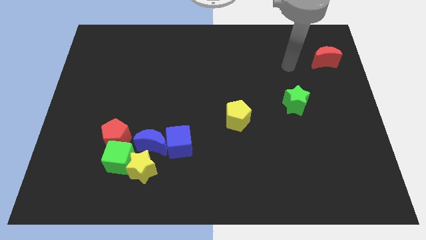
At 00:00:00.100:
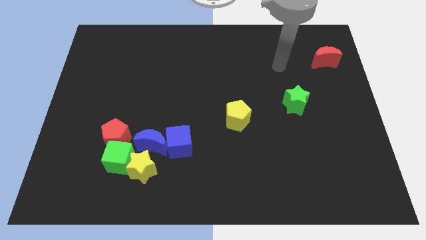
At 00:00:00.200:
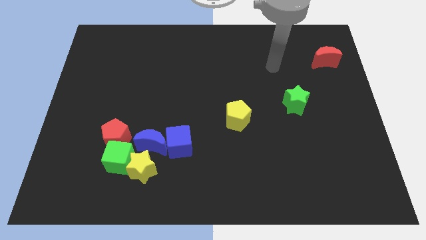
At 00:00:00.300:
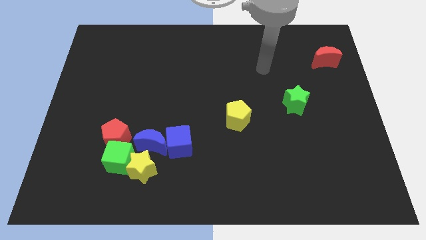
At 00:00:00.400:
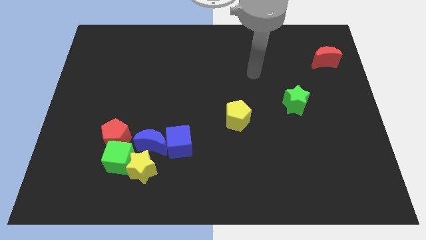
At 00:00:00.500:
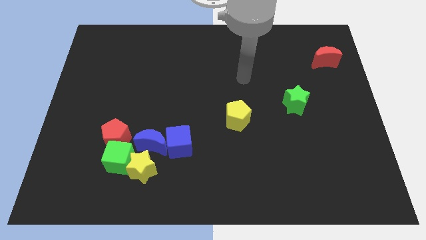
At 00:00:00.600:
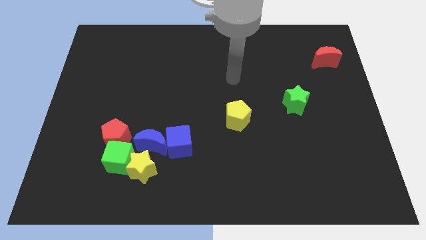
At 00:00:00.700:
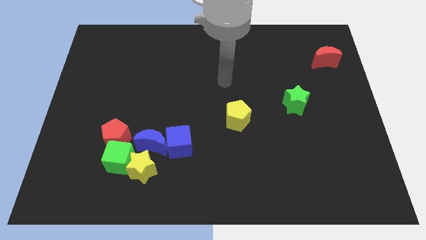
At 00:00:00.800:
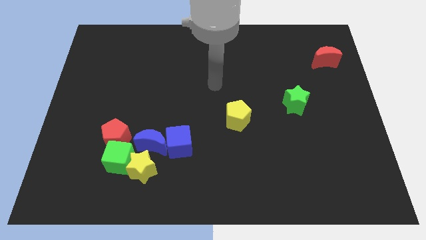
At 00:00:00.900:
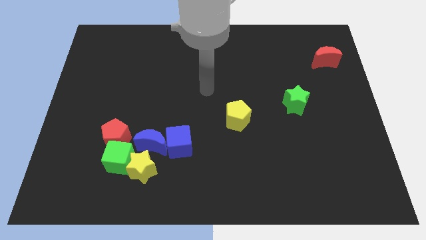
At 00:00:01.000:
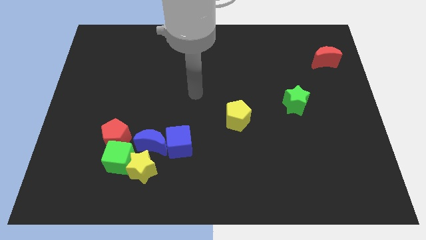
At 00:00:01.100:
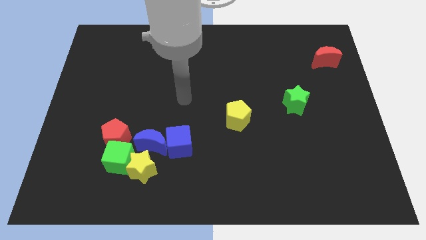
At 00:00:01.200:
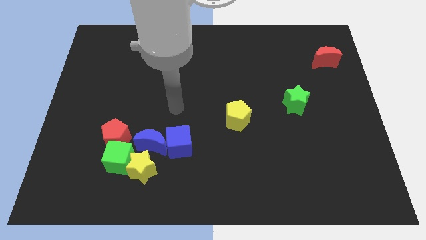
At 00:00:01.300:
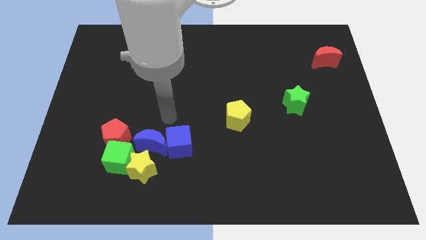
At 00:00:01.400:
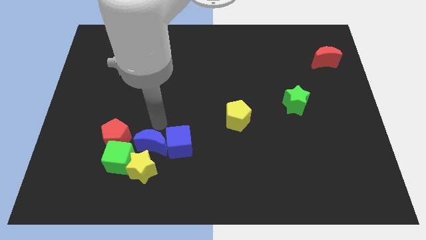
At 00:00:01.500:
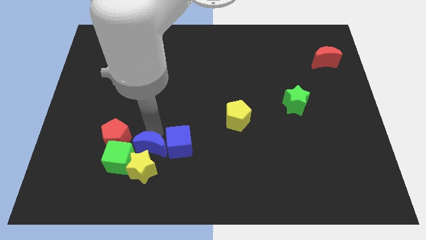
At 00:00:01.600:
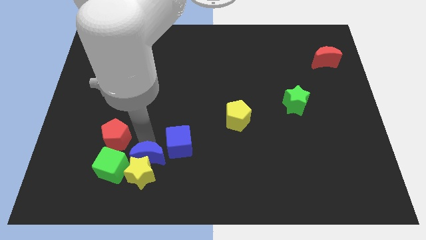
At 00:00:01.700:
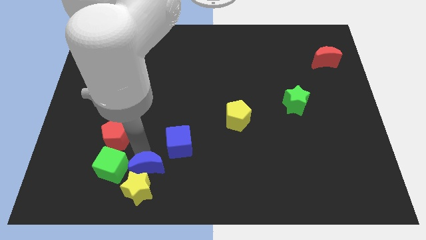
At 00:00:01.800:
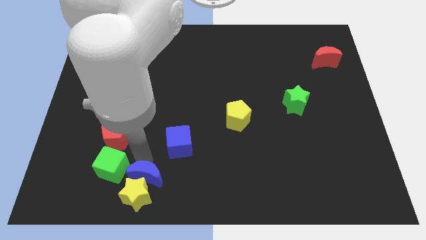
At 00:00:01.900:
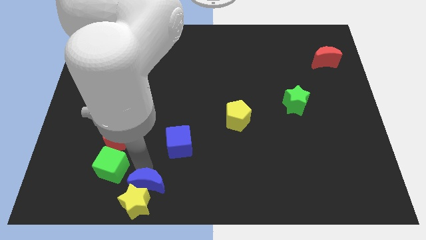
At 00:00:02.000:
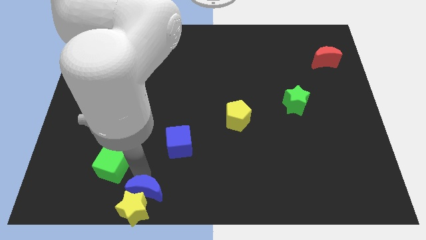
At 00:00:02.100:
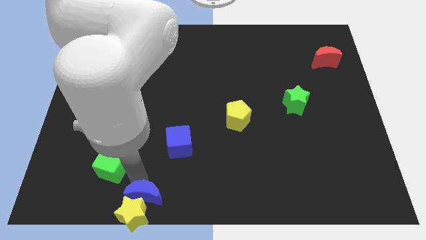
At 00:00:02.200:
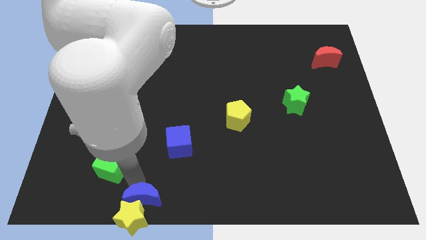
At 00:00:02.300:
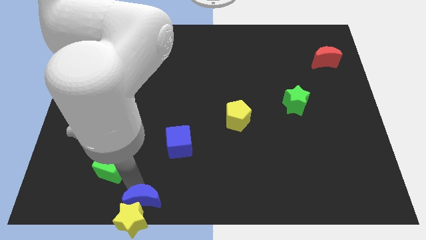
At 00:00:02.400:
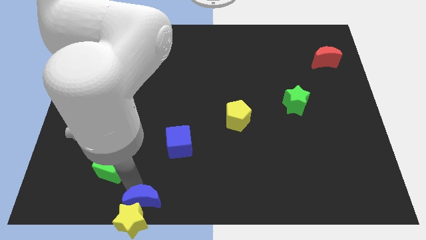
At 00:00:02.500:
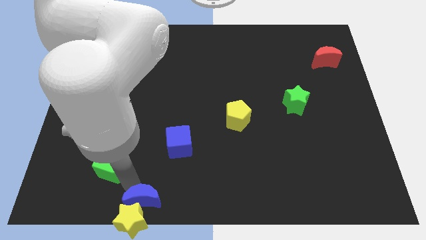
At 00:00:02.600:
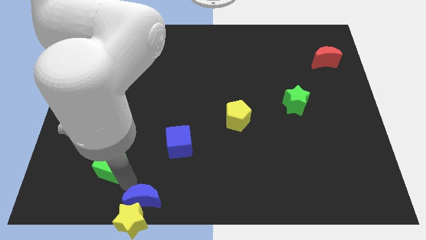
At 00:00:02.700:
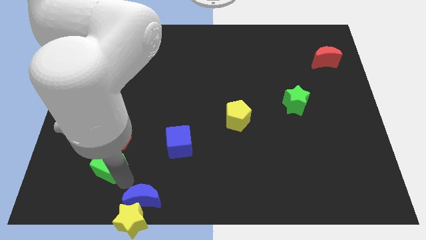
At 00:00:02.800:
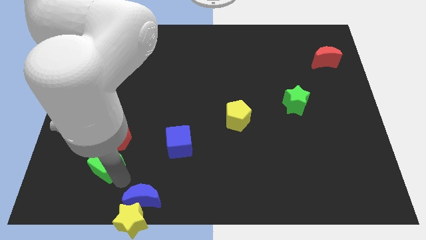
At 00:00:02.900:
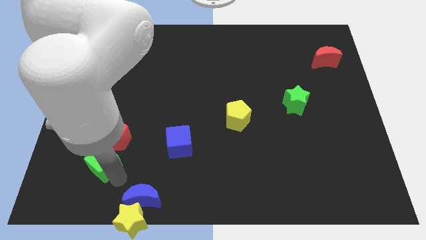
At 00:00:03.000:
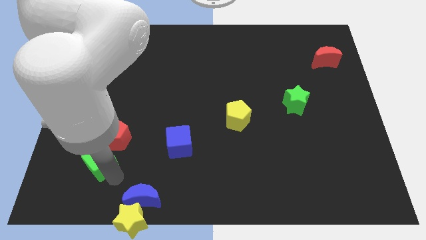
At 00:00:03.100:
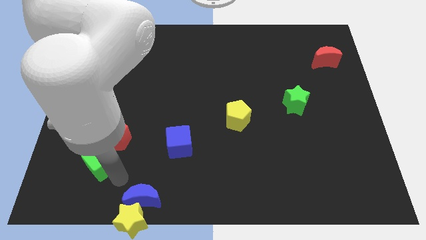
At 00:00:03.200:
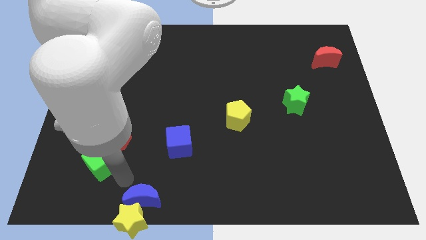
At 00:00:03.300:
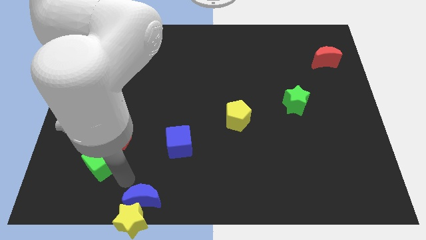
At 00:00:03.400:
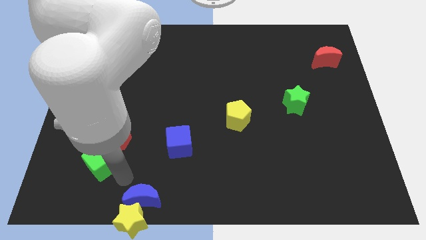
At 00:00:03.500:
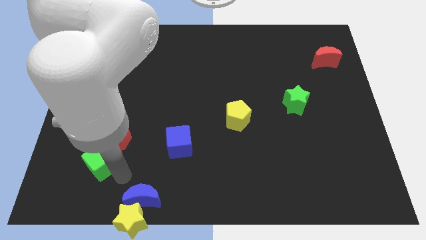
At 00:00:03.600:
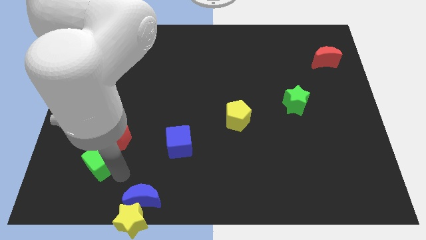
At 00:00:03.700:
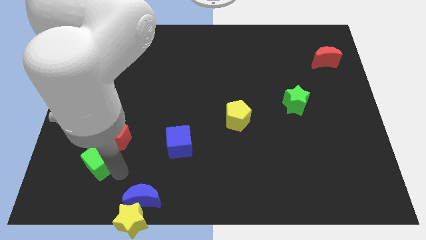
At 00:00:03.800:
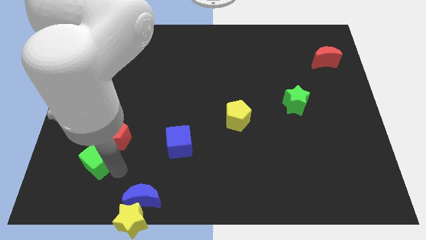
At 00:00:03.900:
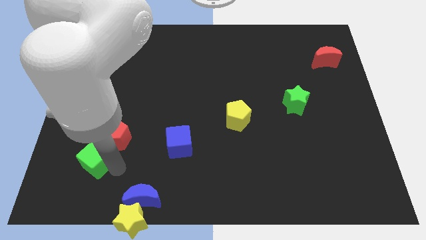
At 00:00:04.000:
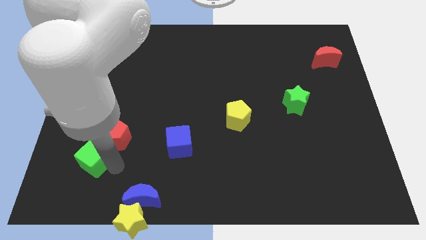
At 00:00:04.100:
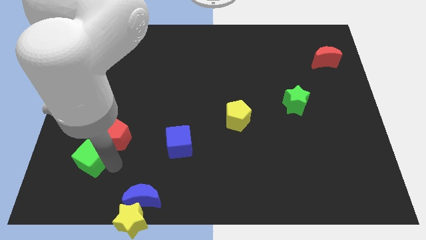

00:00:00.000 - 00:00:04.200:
pull the green cube apart from the yellow star, red pentagon, and blue moon

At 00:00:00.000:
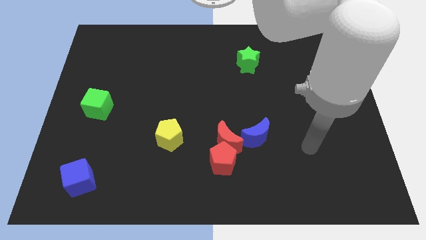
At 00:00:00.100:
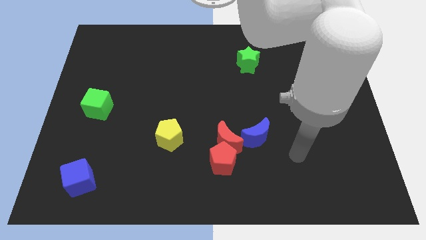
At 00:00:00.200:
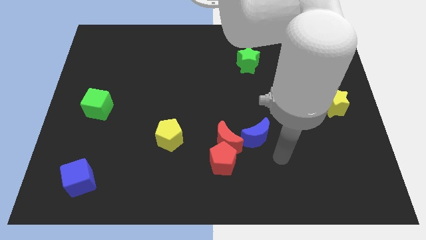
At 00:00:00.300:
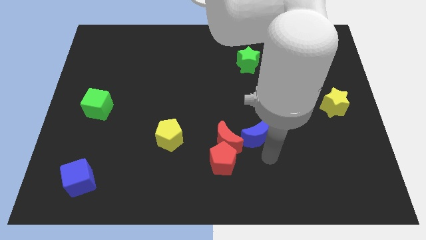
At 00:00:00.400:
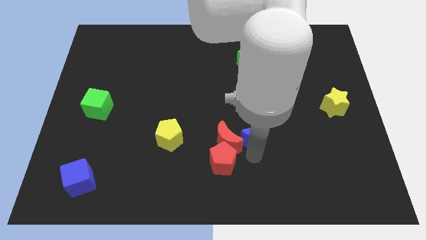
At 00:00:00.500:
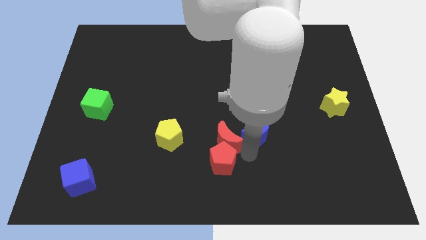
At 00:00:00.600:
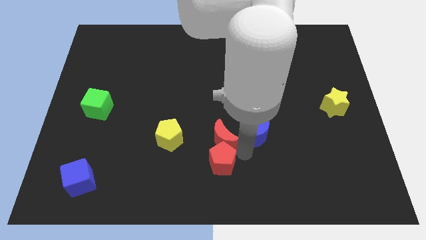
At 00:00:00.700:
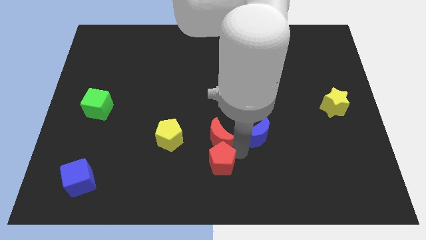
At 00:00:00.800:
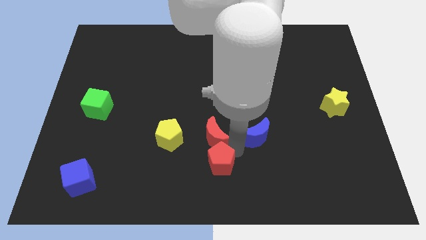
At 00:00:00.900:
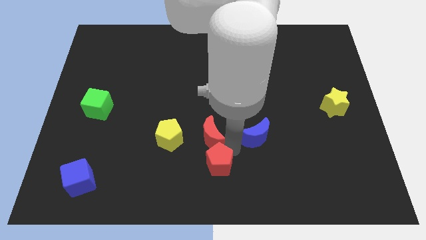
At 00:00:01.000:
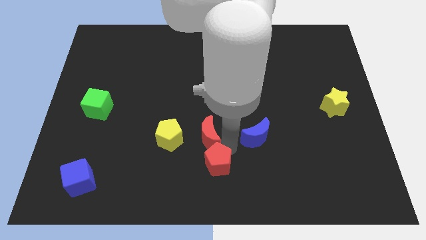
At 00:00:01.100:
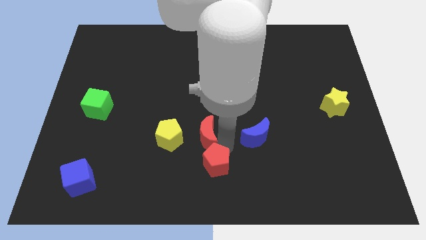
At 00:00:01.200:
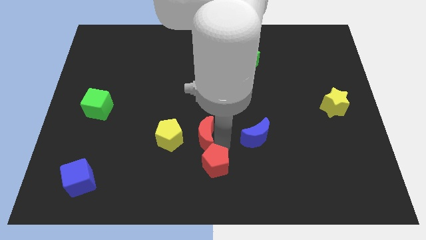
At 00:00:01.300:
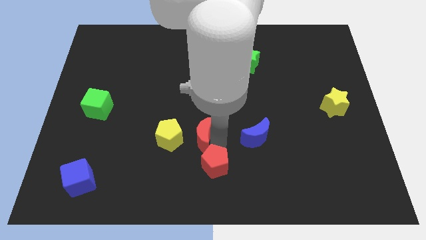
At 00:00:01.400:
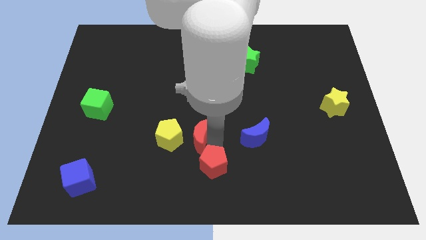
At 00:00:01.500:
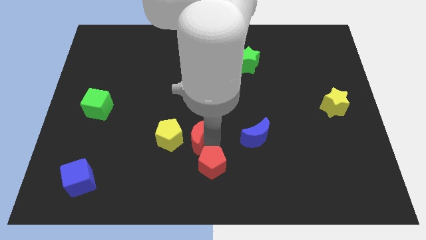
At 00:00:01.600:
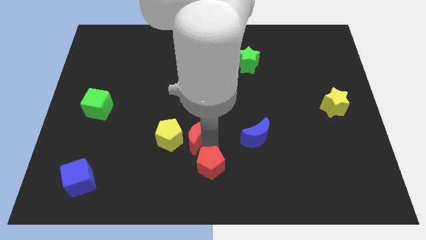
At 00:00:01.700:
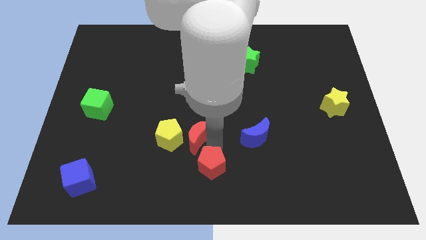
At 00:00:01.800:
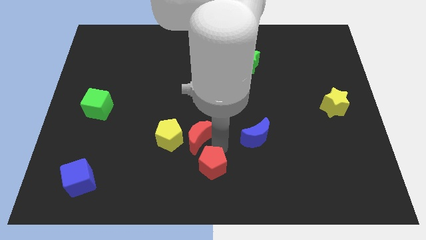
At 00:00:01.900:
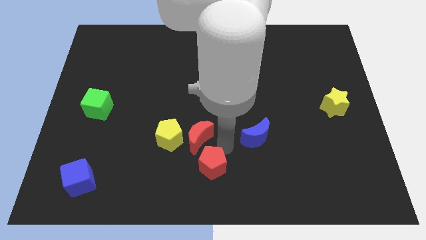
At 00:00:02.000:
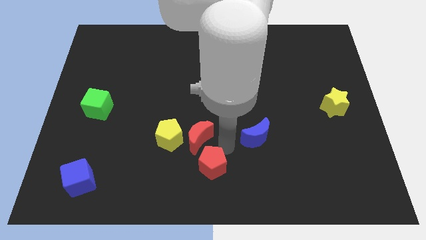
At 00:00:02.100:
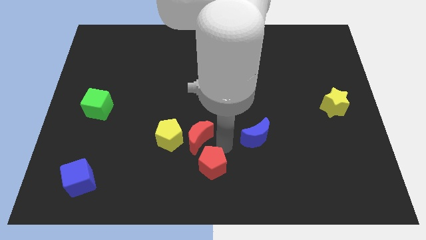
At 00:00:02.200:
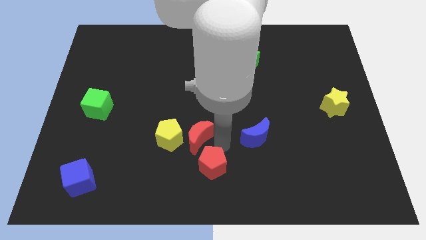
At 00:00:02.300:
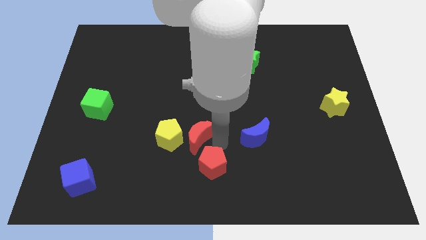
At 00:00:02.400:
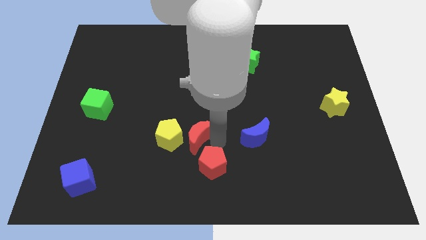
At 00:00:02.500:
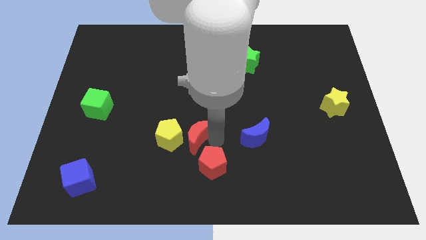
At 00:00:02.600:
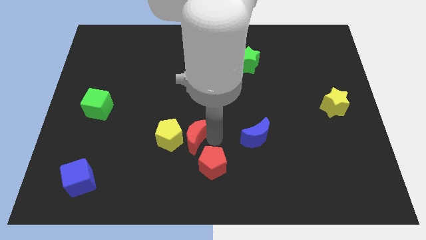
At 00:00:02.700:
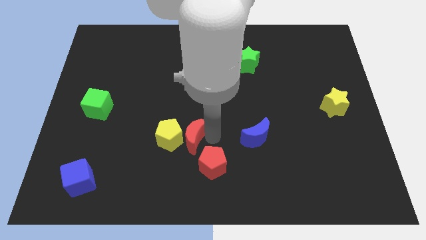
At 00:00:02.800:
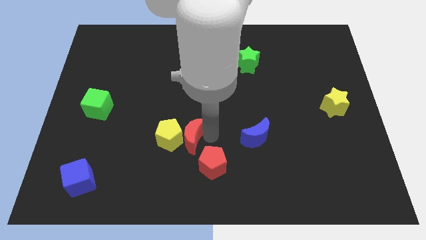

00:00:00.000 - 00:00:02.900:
separate the red moon from the red pentagon and blue moon

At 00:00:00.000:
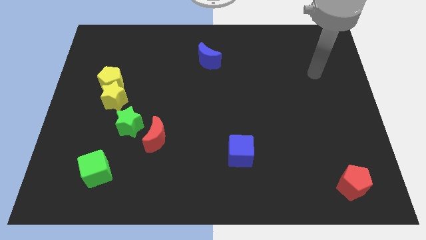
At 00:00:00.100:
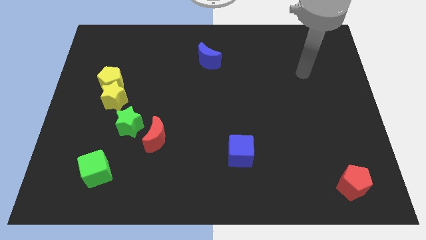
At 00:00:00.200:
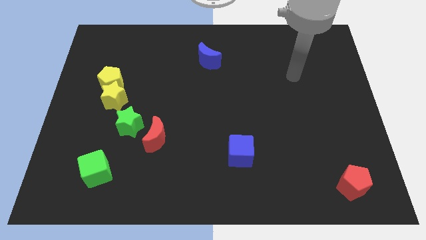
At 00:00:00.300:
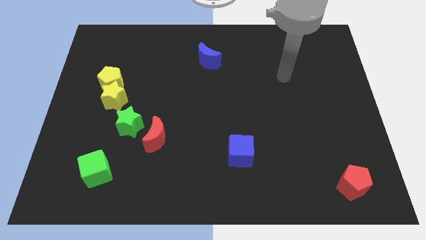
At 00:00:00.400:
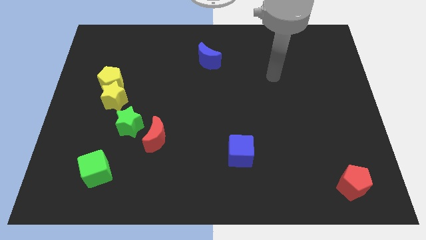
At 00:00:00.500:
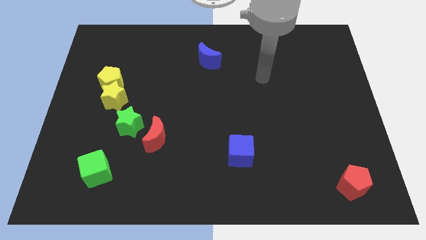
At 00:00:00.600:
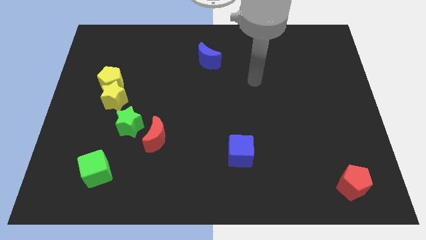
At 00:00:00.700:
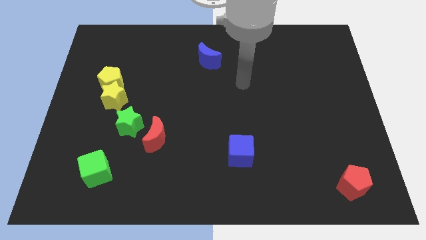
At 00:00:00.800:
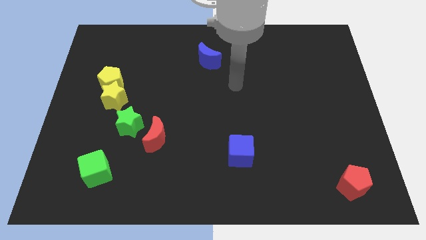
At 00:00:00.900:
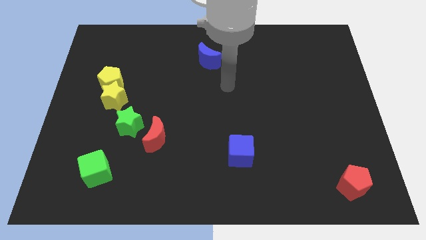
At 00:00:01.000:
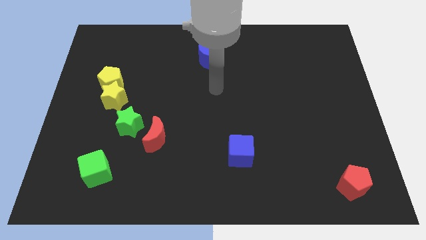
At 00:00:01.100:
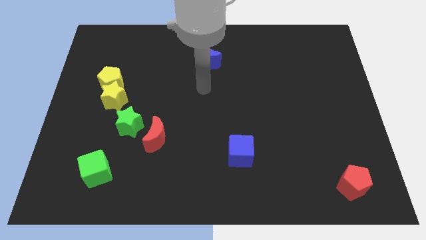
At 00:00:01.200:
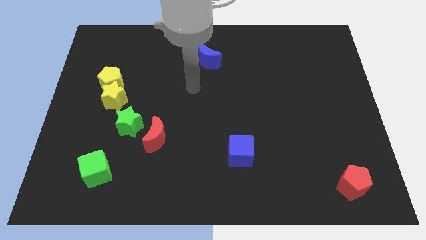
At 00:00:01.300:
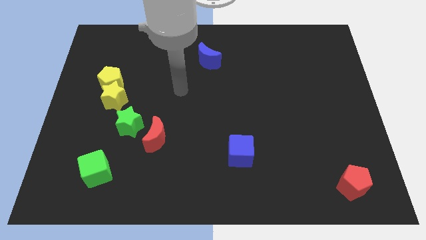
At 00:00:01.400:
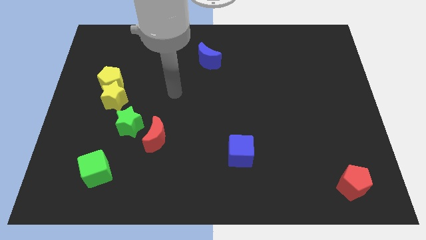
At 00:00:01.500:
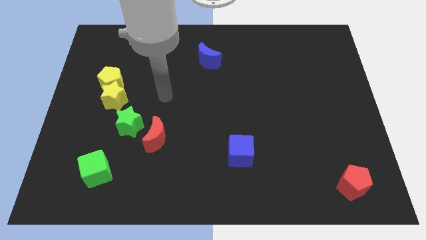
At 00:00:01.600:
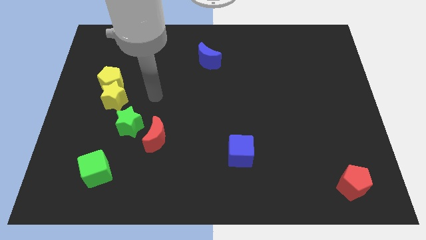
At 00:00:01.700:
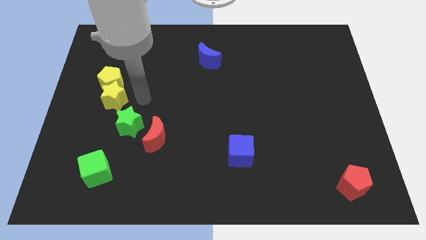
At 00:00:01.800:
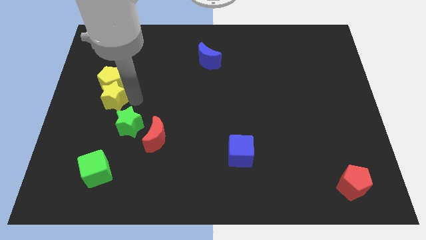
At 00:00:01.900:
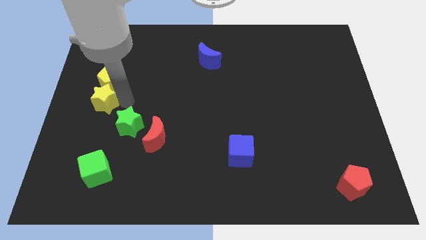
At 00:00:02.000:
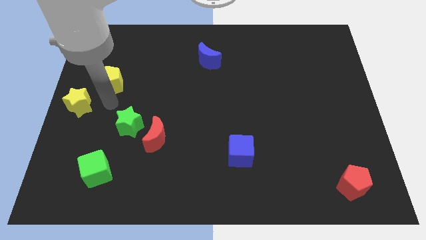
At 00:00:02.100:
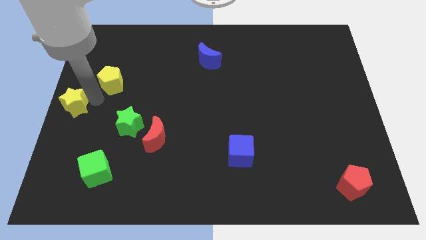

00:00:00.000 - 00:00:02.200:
pull the yellow pentagon apart from the yellow star
